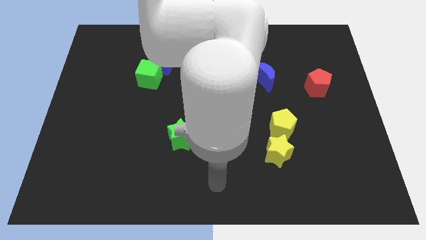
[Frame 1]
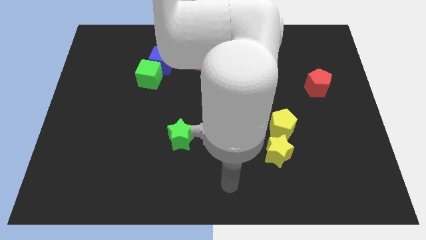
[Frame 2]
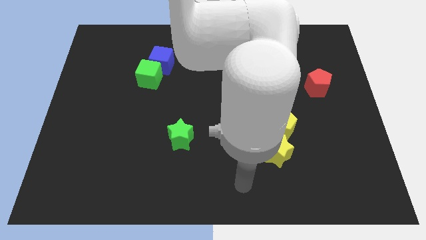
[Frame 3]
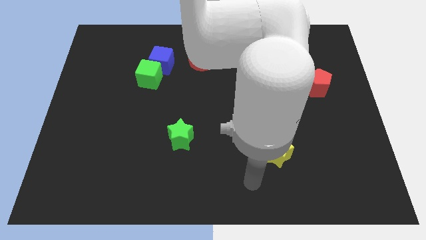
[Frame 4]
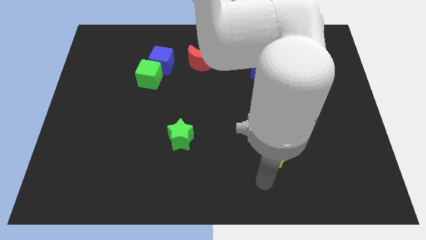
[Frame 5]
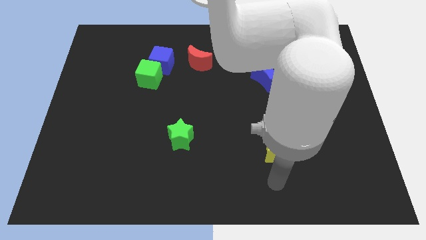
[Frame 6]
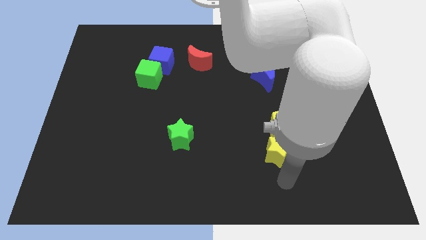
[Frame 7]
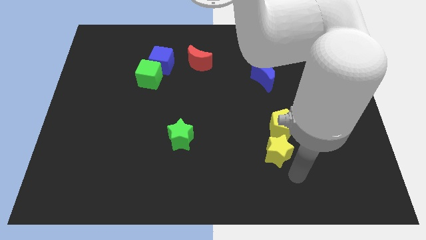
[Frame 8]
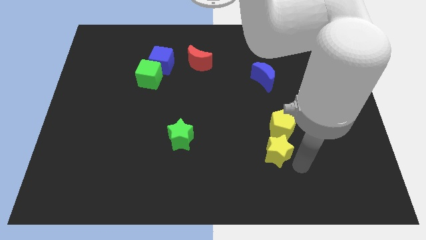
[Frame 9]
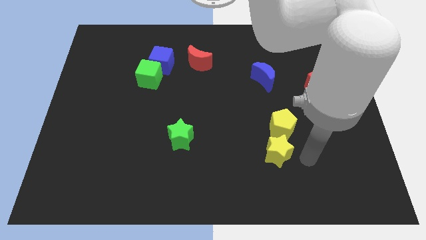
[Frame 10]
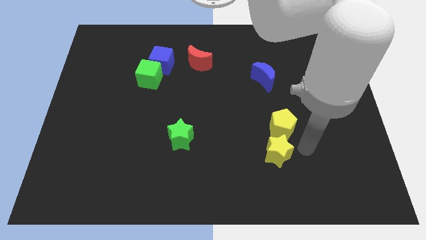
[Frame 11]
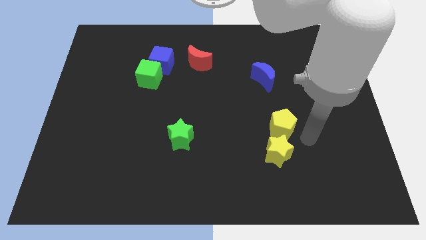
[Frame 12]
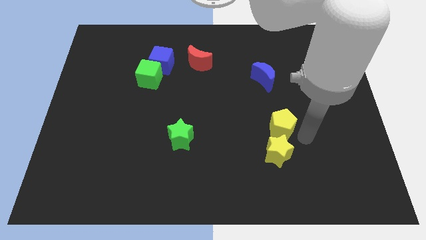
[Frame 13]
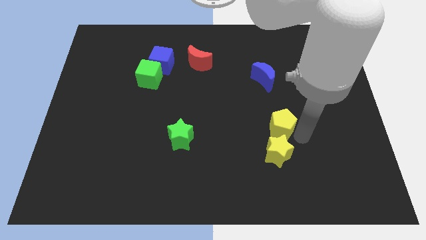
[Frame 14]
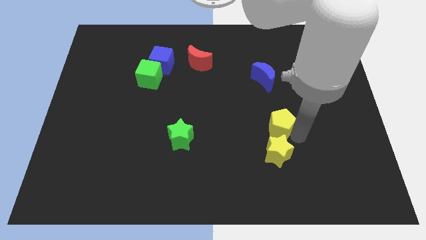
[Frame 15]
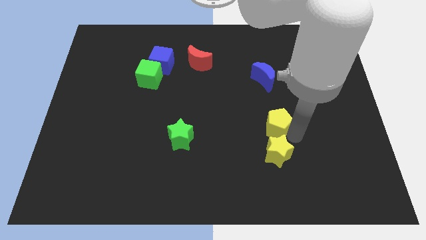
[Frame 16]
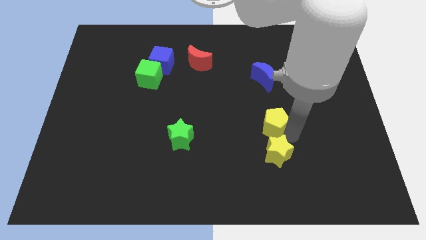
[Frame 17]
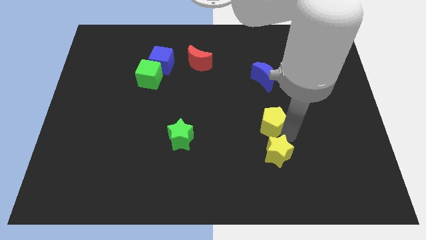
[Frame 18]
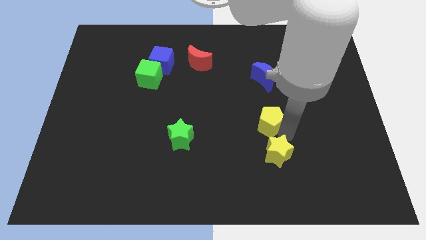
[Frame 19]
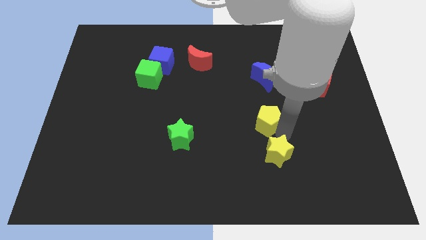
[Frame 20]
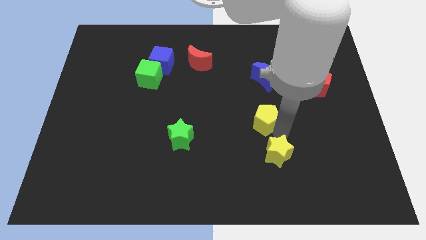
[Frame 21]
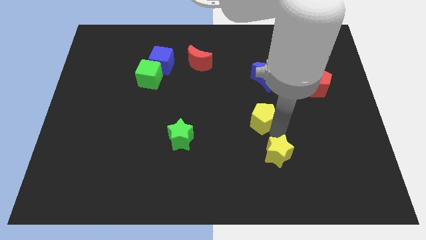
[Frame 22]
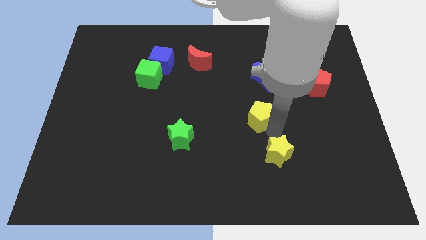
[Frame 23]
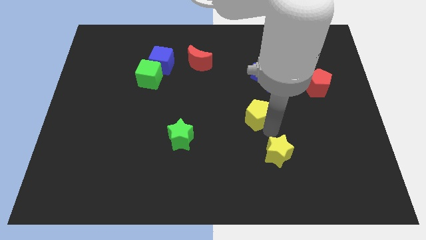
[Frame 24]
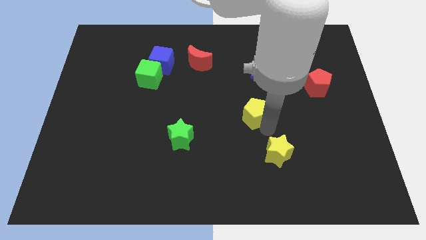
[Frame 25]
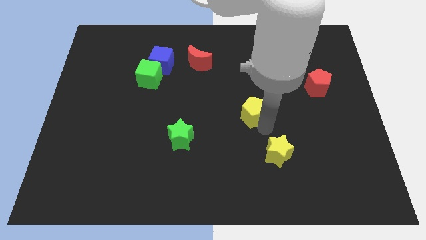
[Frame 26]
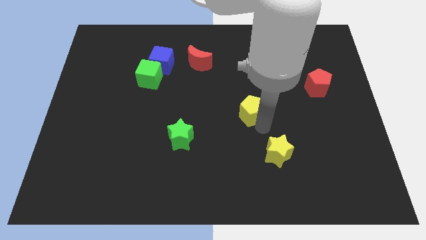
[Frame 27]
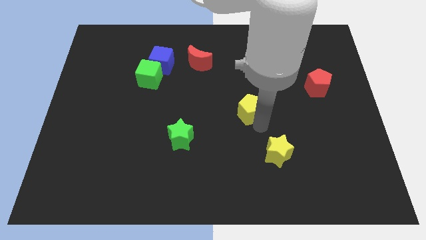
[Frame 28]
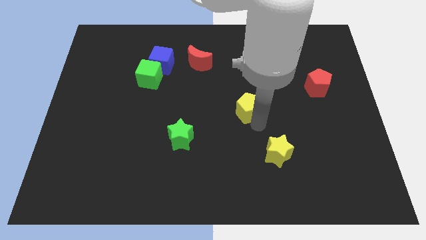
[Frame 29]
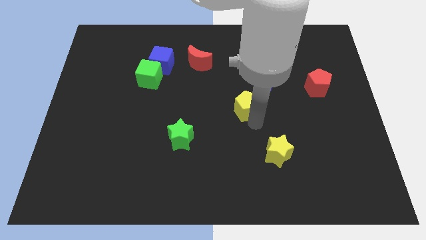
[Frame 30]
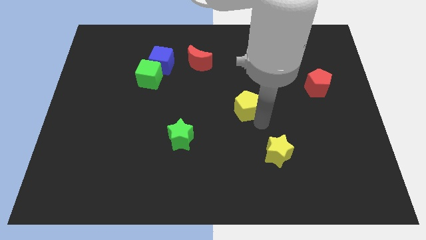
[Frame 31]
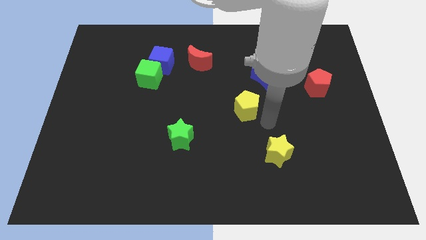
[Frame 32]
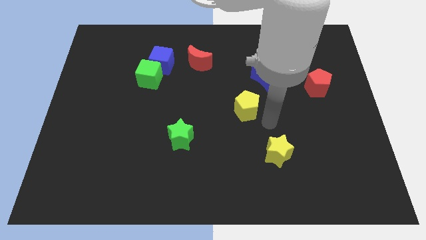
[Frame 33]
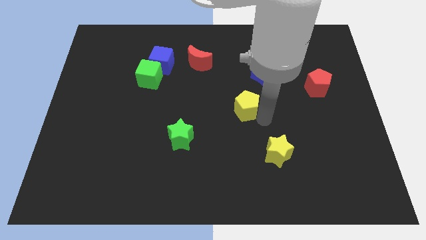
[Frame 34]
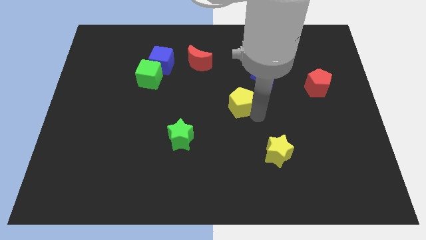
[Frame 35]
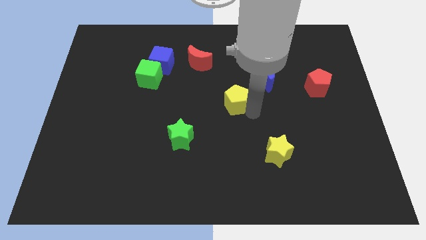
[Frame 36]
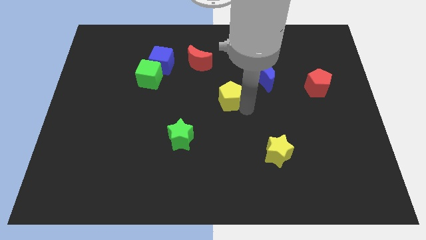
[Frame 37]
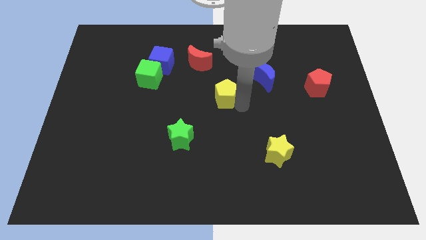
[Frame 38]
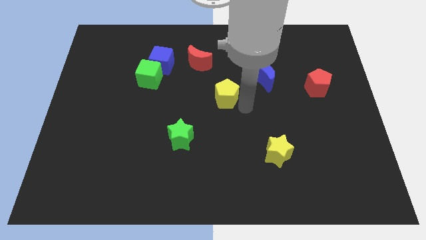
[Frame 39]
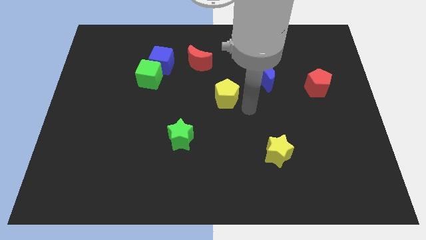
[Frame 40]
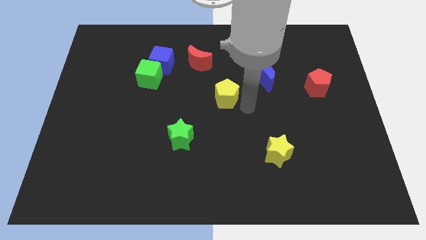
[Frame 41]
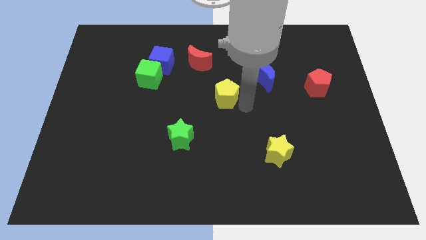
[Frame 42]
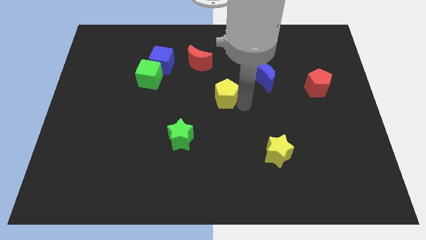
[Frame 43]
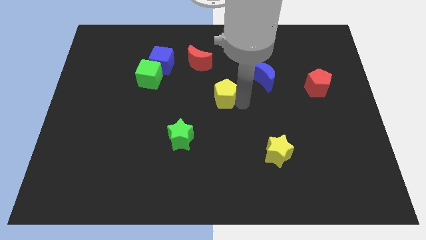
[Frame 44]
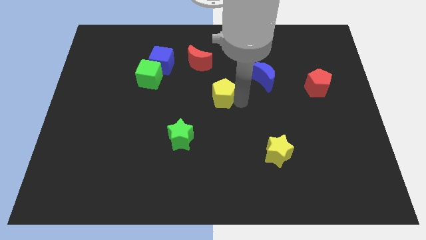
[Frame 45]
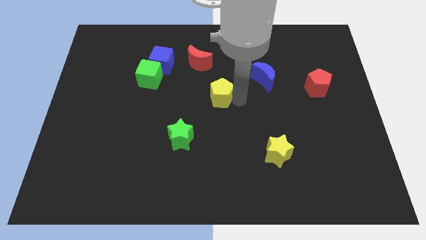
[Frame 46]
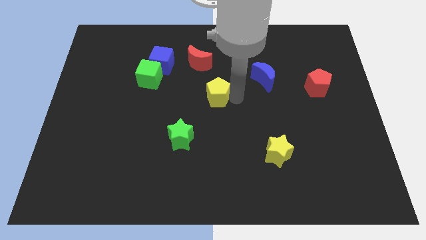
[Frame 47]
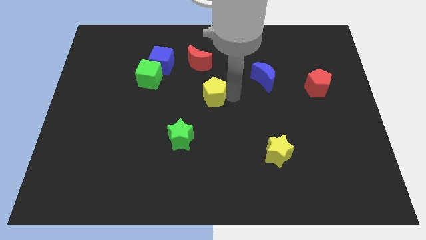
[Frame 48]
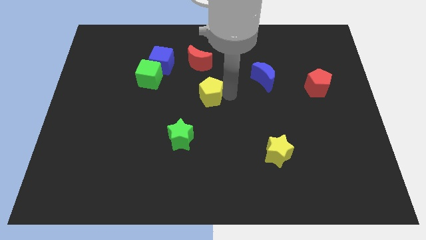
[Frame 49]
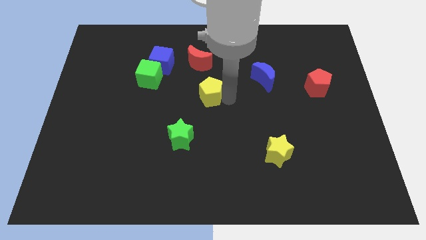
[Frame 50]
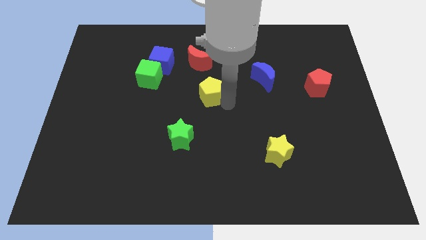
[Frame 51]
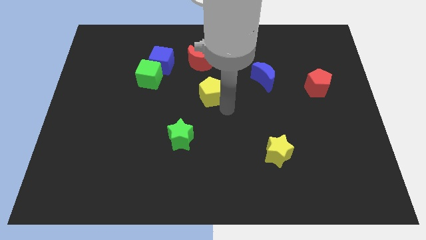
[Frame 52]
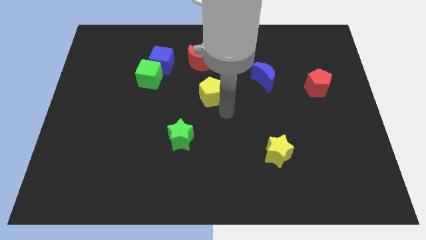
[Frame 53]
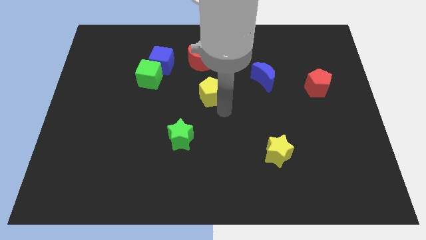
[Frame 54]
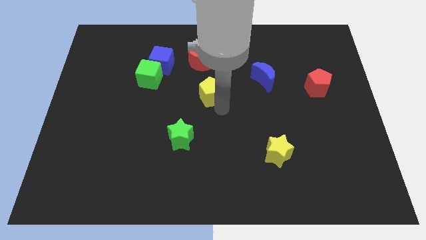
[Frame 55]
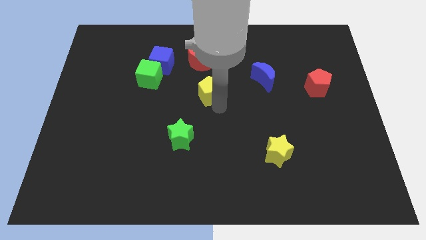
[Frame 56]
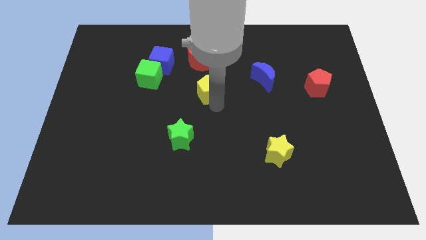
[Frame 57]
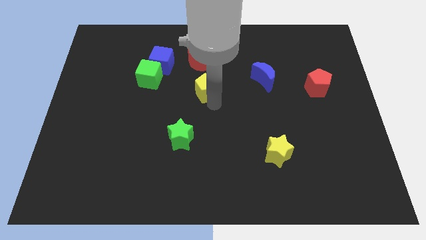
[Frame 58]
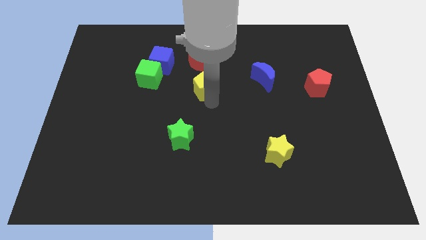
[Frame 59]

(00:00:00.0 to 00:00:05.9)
move the yellow pentagon diagonally upwards and to the left

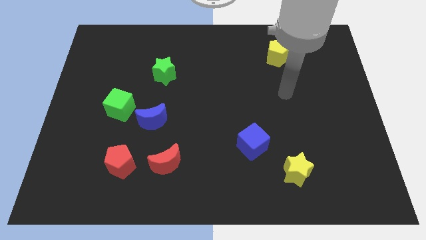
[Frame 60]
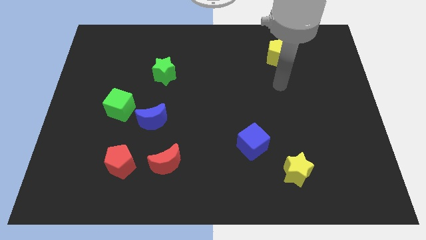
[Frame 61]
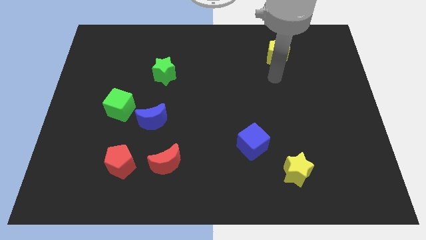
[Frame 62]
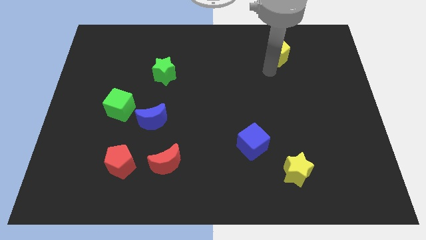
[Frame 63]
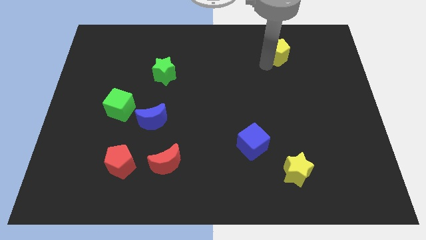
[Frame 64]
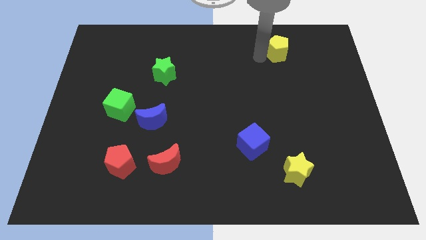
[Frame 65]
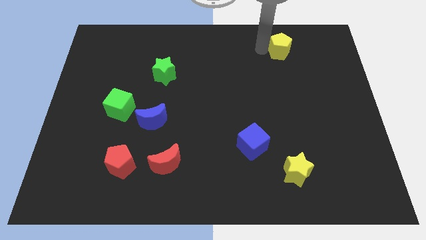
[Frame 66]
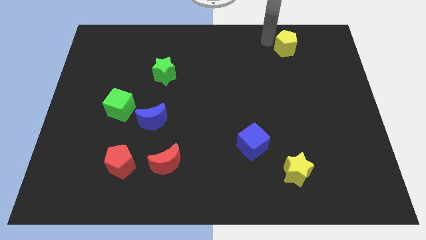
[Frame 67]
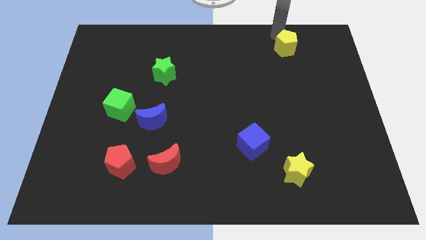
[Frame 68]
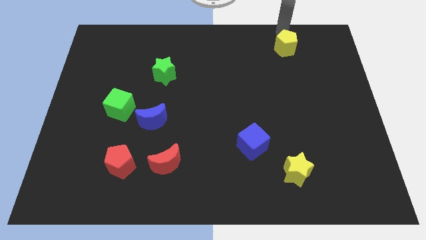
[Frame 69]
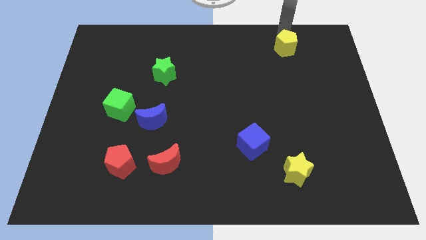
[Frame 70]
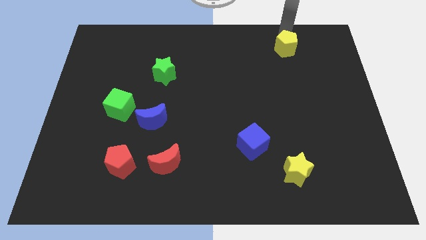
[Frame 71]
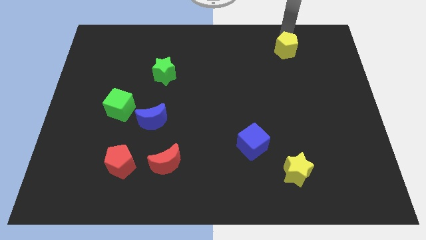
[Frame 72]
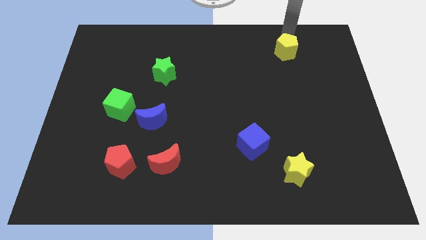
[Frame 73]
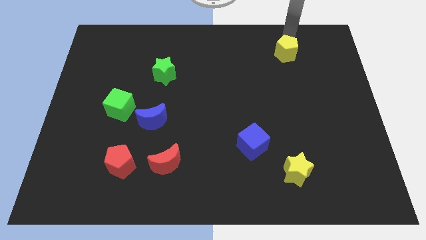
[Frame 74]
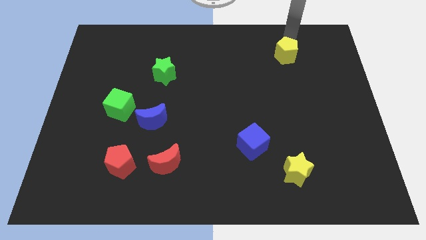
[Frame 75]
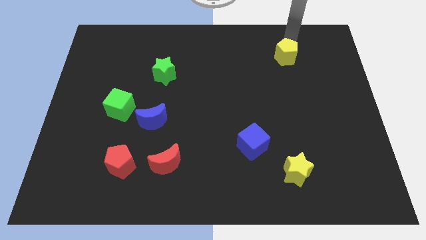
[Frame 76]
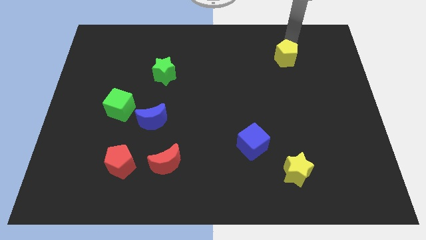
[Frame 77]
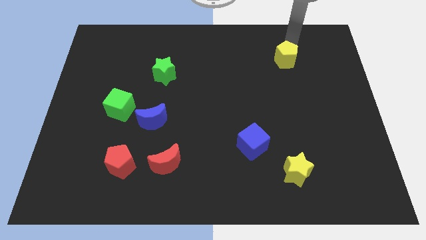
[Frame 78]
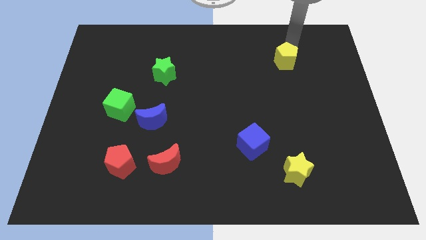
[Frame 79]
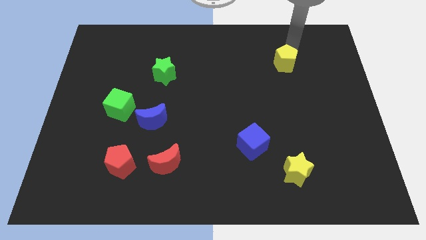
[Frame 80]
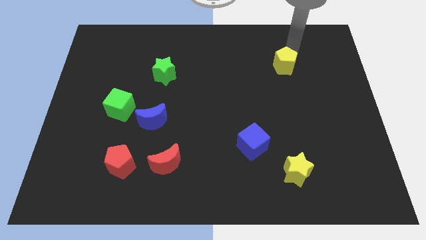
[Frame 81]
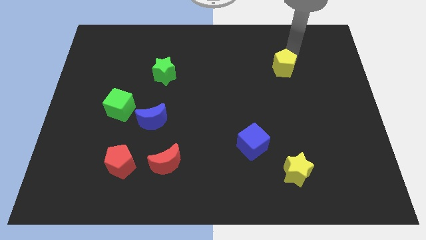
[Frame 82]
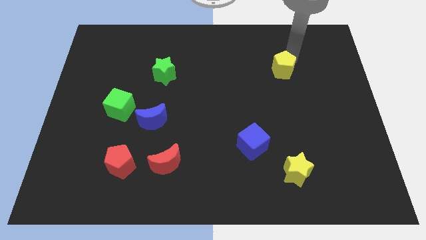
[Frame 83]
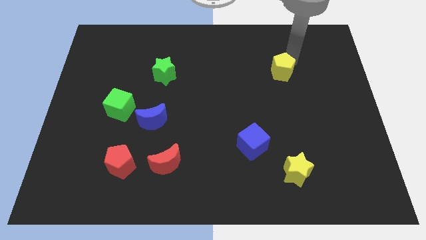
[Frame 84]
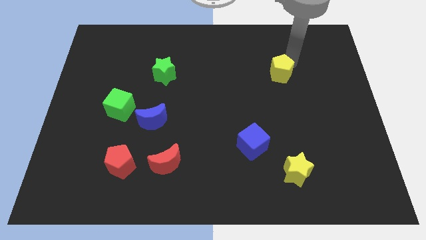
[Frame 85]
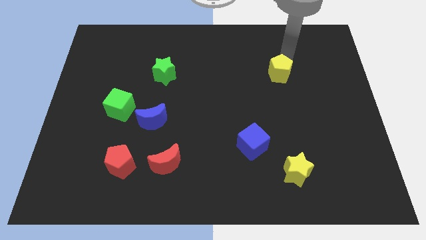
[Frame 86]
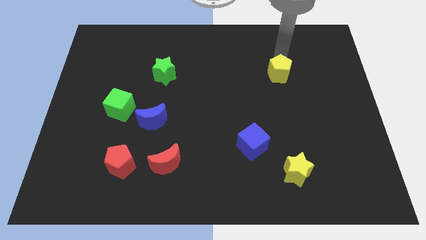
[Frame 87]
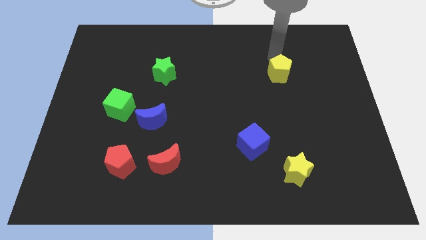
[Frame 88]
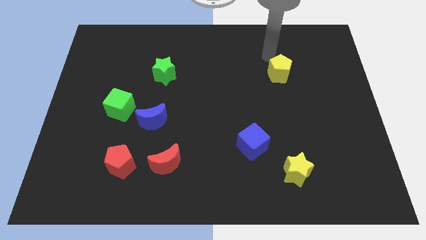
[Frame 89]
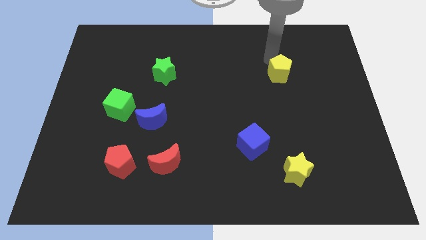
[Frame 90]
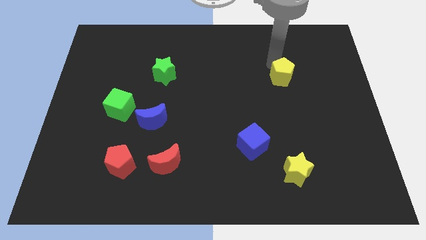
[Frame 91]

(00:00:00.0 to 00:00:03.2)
move the yellow pentagon downwards a little
